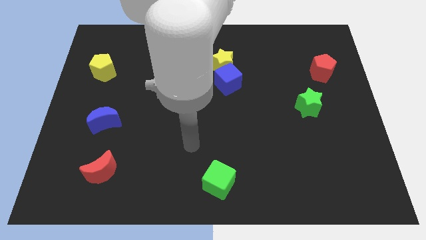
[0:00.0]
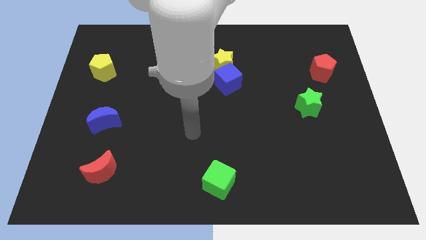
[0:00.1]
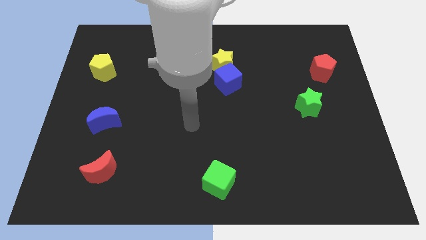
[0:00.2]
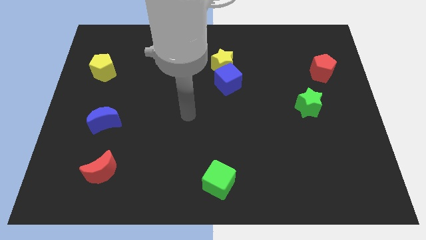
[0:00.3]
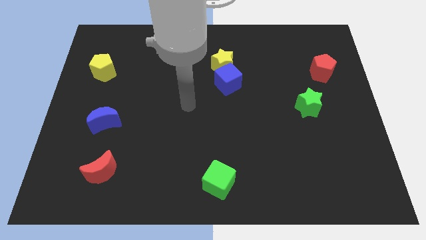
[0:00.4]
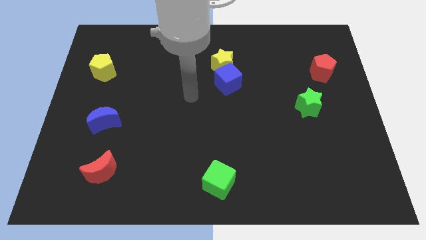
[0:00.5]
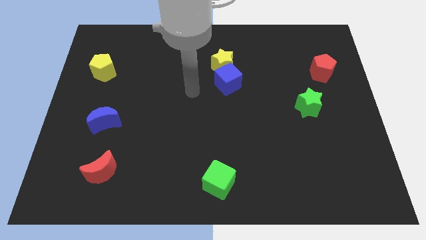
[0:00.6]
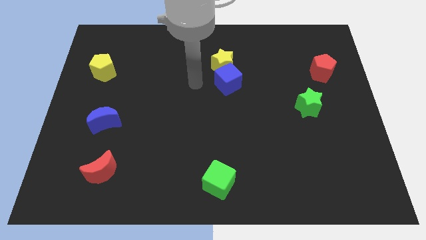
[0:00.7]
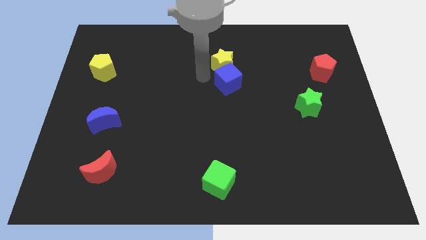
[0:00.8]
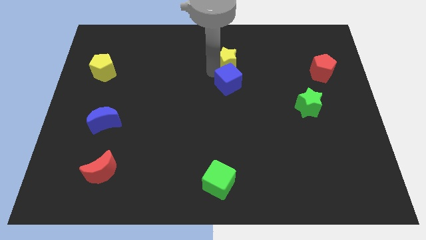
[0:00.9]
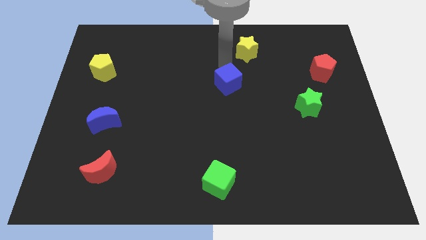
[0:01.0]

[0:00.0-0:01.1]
move the blue cube away from the yellow star

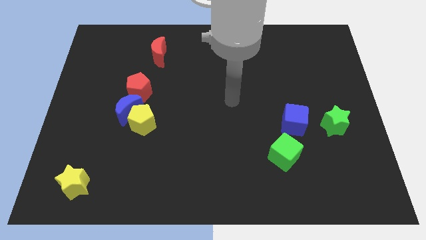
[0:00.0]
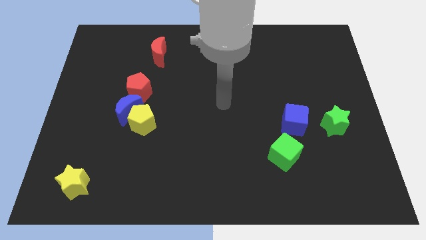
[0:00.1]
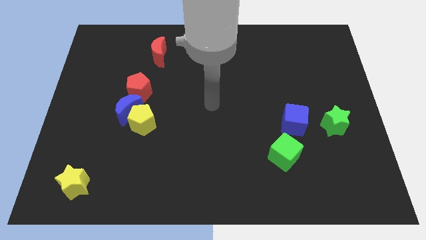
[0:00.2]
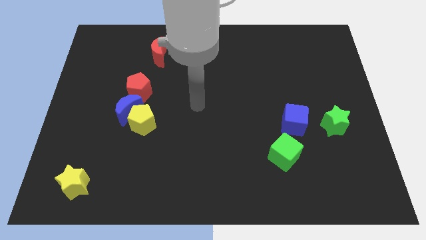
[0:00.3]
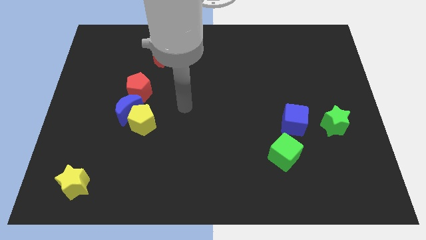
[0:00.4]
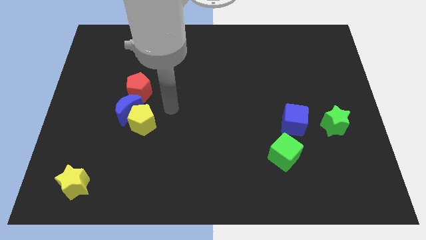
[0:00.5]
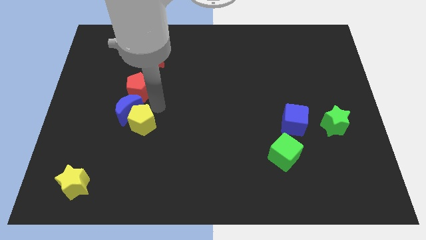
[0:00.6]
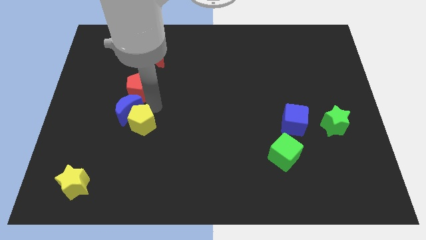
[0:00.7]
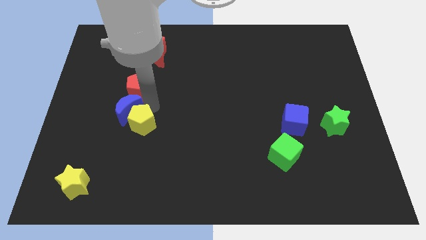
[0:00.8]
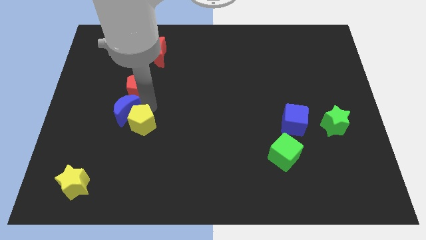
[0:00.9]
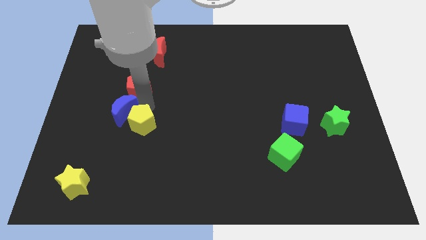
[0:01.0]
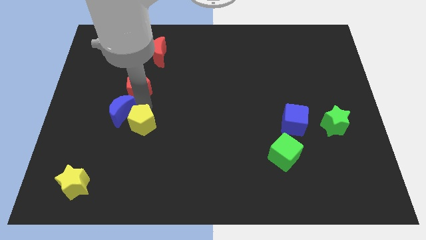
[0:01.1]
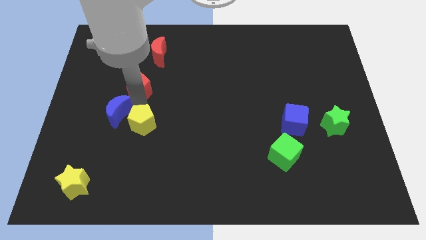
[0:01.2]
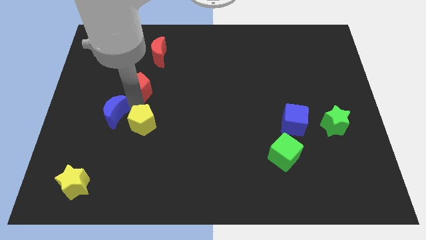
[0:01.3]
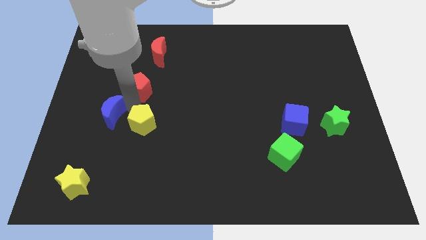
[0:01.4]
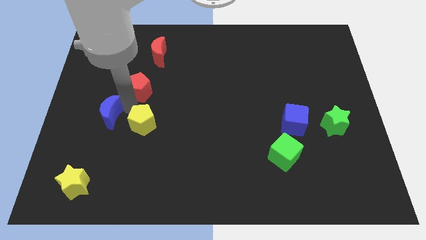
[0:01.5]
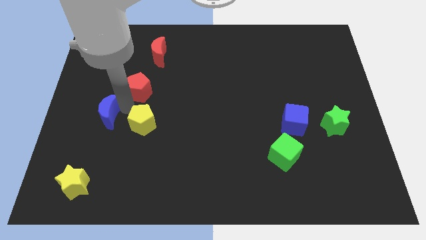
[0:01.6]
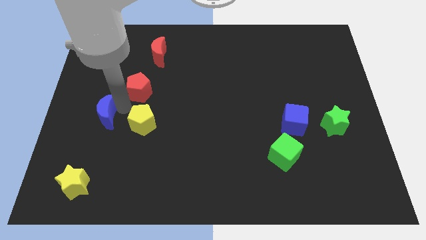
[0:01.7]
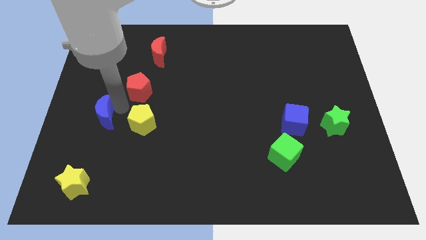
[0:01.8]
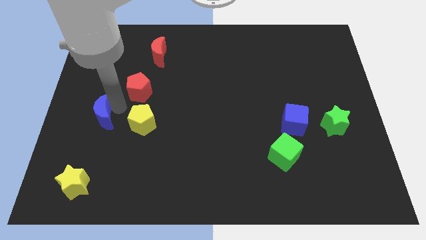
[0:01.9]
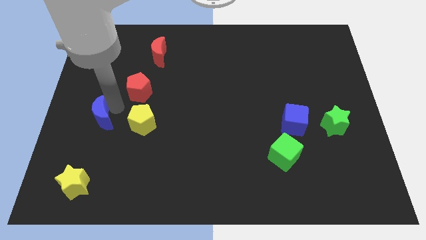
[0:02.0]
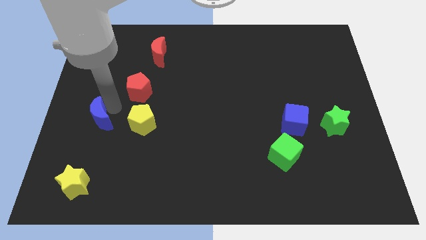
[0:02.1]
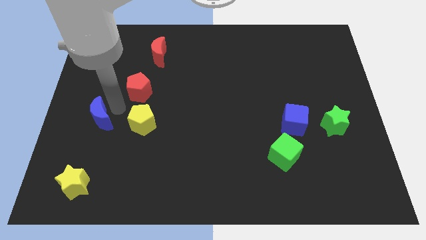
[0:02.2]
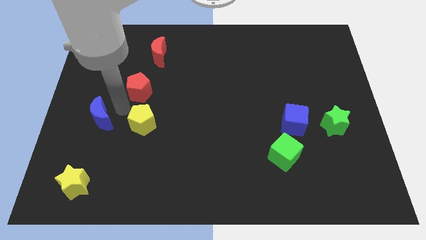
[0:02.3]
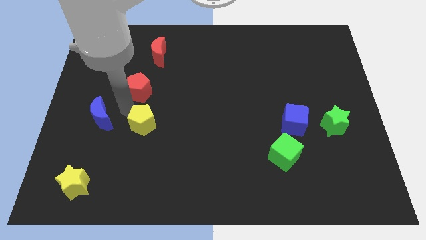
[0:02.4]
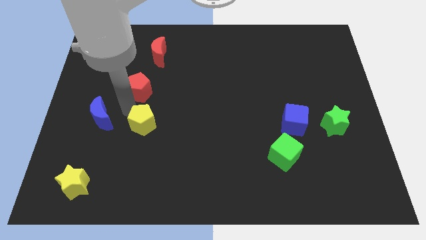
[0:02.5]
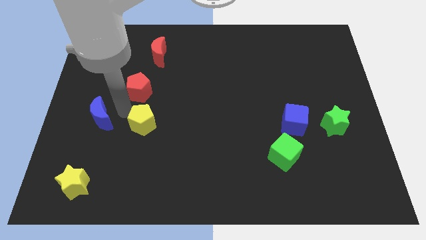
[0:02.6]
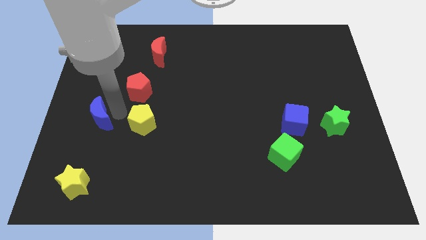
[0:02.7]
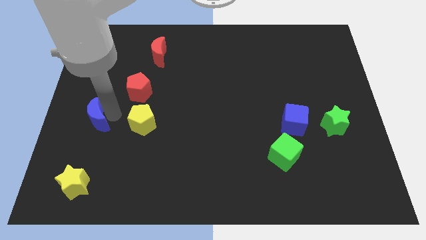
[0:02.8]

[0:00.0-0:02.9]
pull the blue moon apart from the yellow pentagon and red pentagon

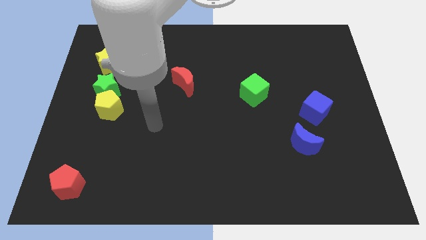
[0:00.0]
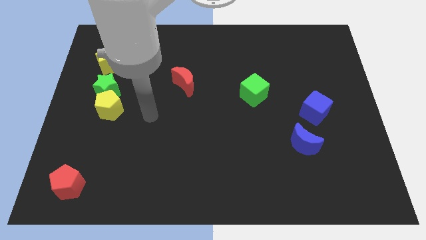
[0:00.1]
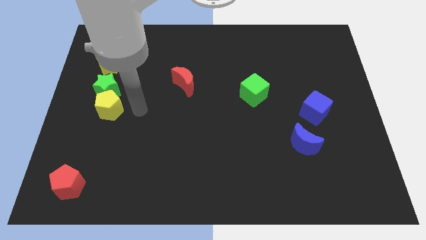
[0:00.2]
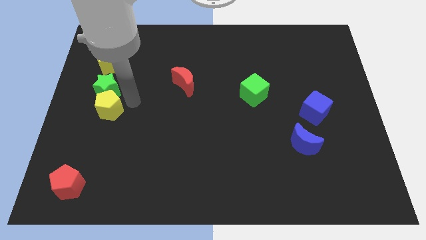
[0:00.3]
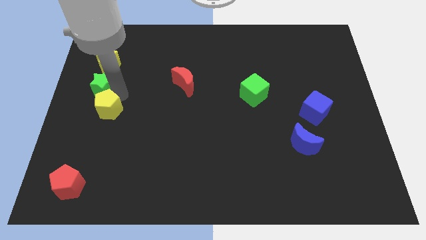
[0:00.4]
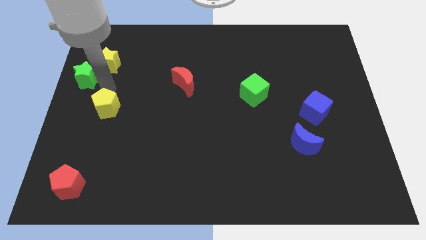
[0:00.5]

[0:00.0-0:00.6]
separate the yellow pentagon from the green star

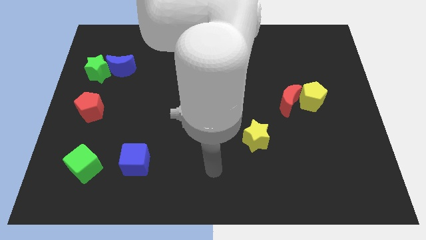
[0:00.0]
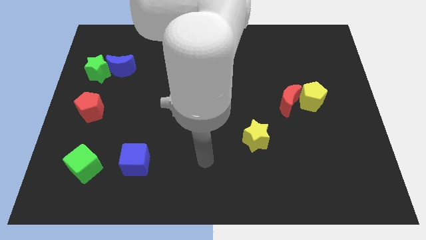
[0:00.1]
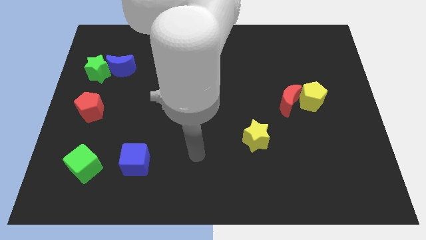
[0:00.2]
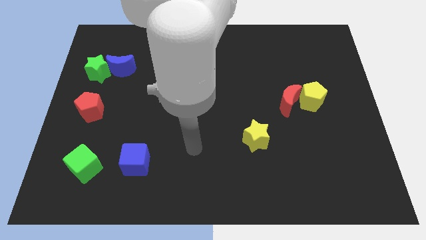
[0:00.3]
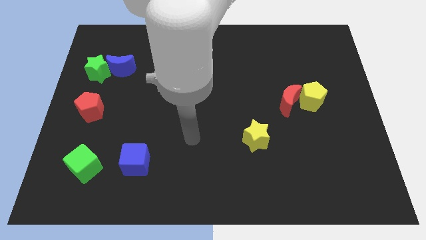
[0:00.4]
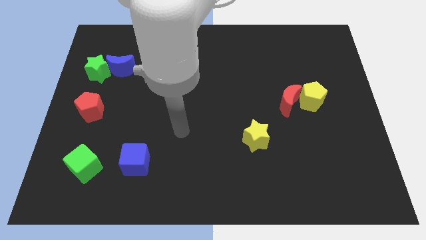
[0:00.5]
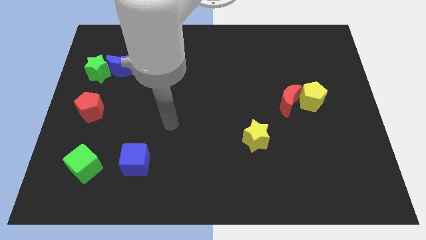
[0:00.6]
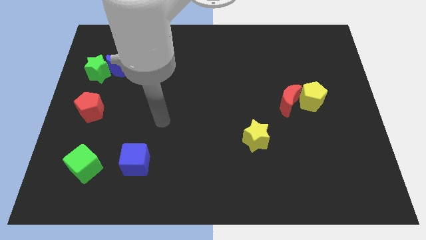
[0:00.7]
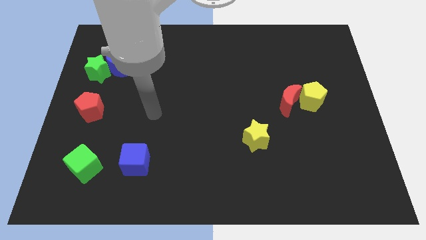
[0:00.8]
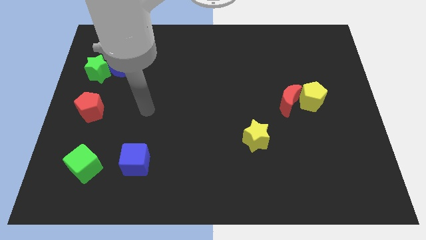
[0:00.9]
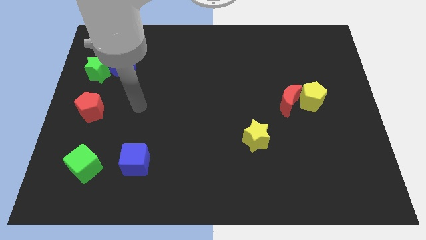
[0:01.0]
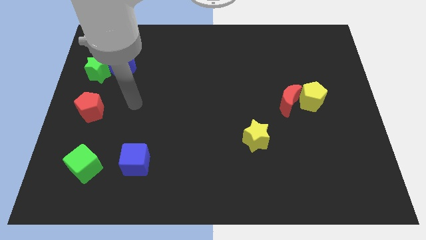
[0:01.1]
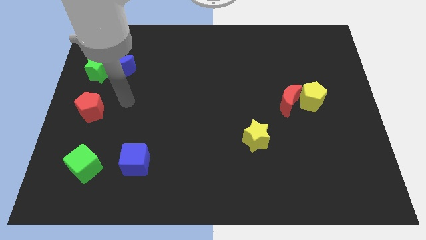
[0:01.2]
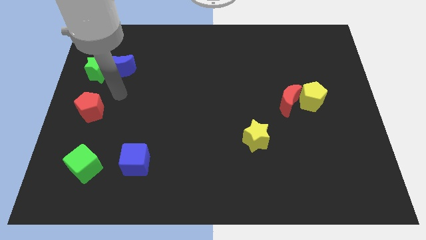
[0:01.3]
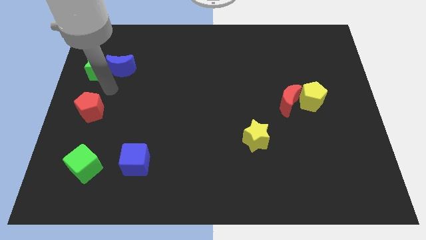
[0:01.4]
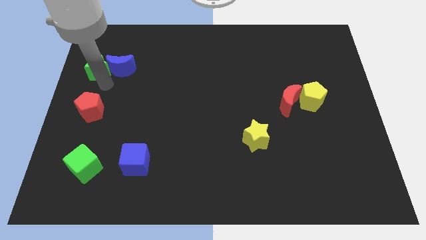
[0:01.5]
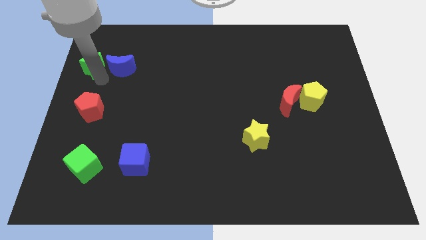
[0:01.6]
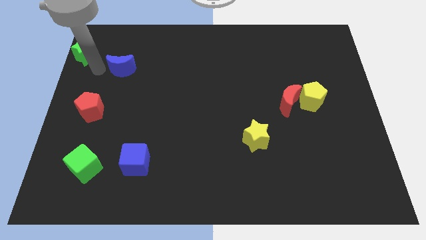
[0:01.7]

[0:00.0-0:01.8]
move the blue moon away from the green star

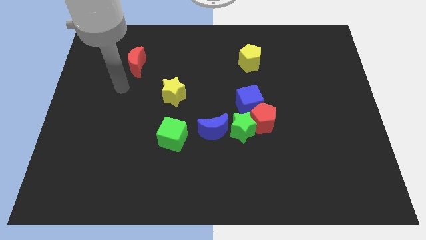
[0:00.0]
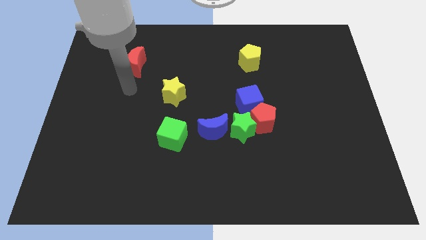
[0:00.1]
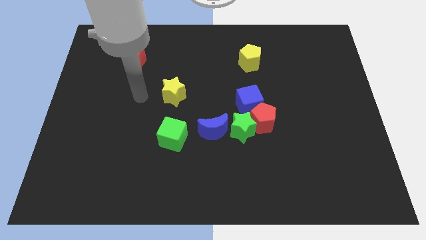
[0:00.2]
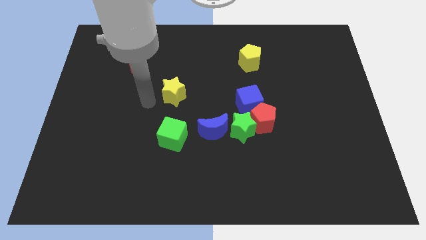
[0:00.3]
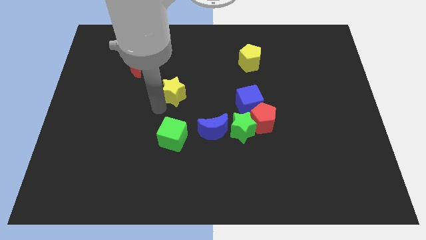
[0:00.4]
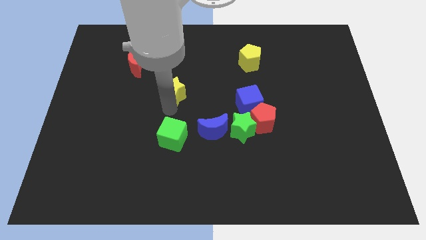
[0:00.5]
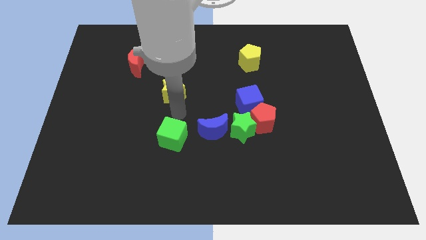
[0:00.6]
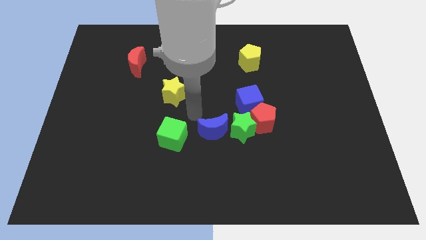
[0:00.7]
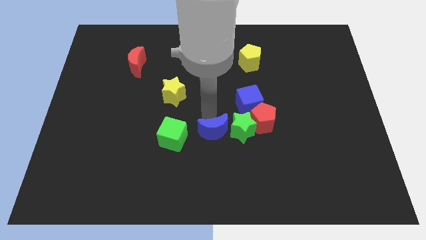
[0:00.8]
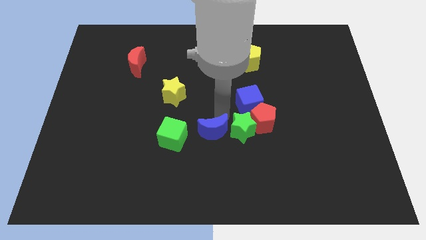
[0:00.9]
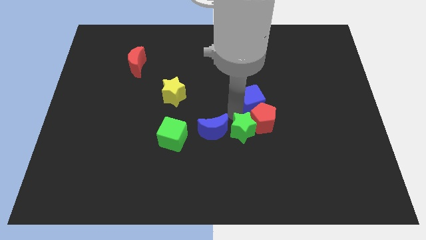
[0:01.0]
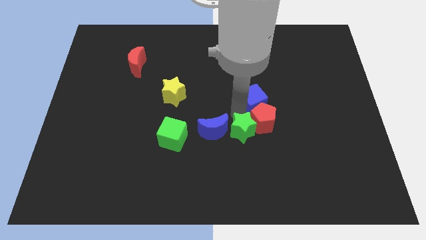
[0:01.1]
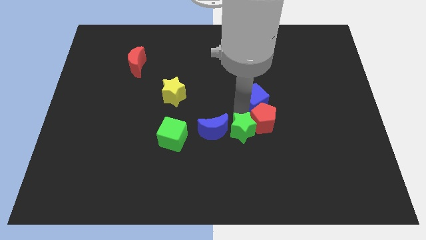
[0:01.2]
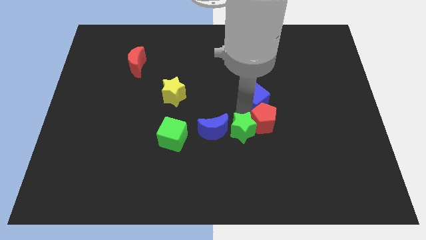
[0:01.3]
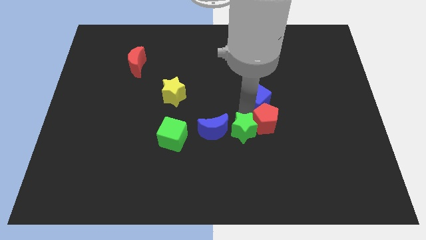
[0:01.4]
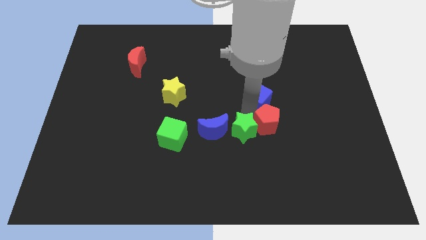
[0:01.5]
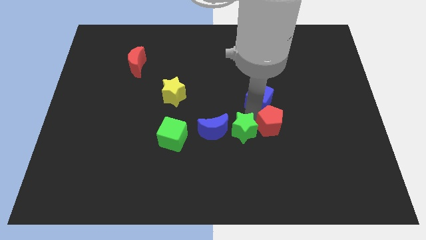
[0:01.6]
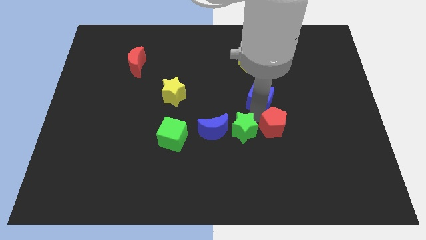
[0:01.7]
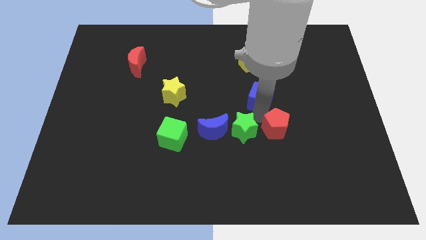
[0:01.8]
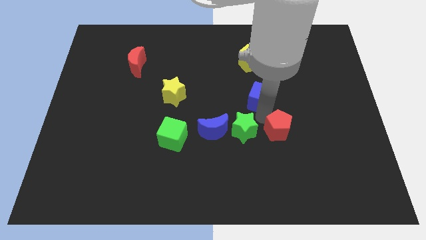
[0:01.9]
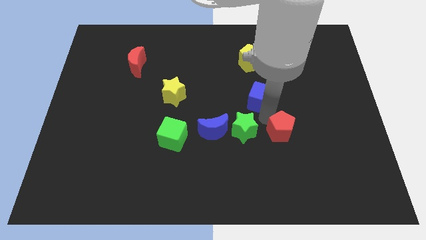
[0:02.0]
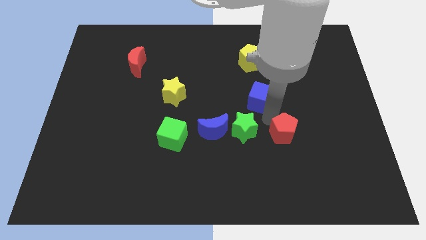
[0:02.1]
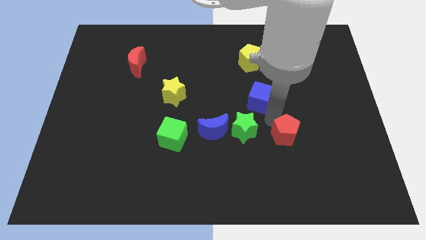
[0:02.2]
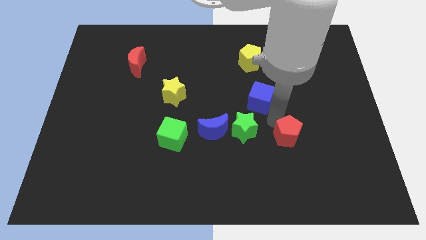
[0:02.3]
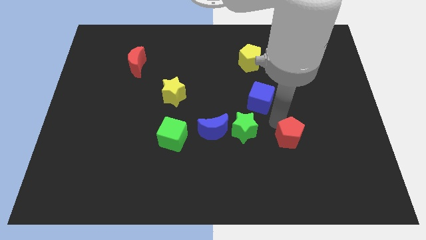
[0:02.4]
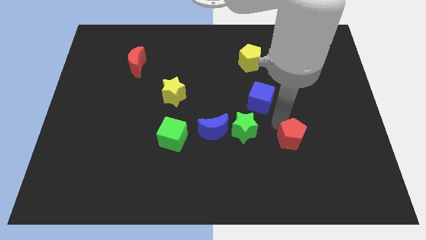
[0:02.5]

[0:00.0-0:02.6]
separate the red pentagon from the green star and blue cube
